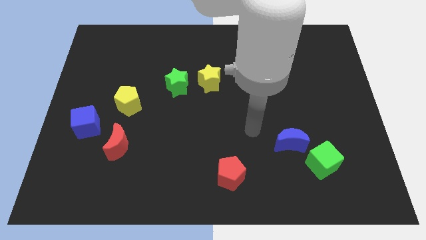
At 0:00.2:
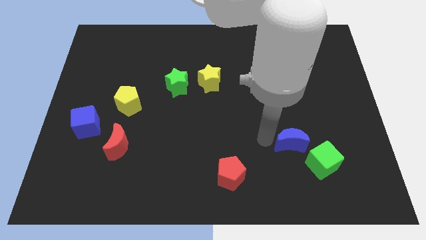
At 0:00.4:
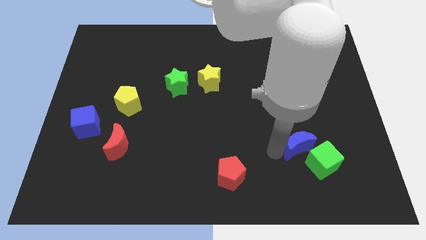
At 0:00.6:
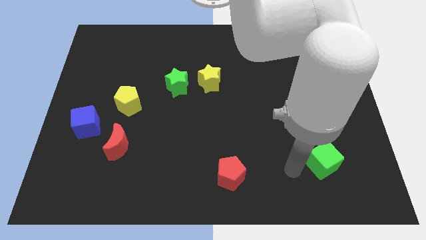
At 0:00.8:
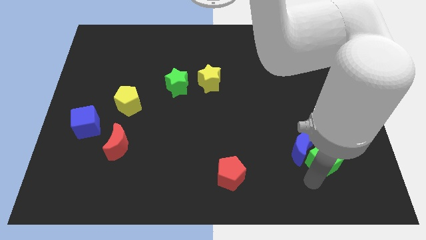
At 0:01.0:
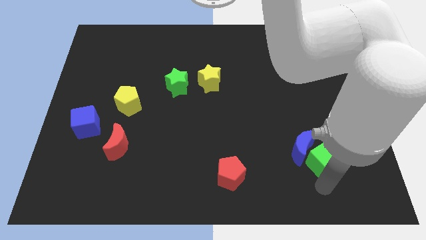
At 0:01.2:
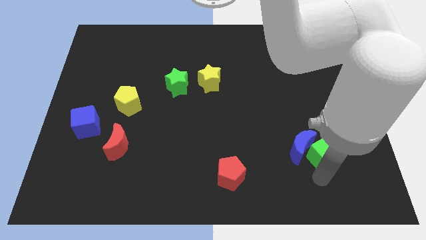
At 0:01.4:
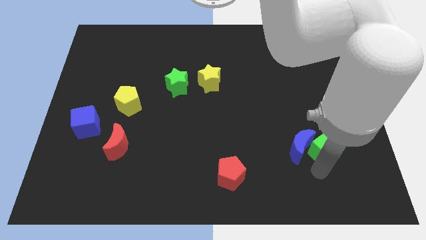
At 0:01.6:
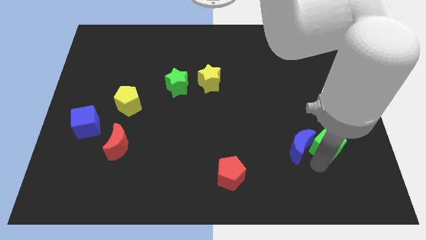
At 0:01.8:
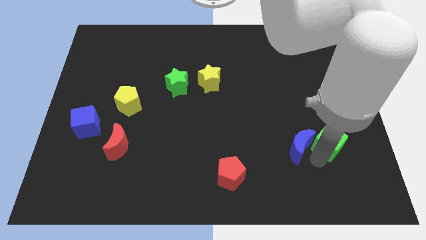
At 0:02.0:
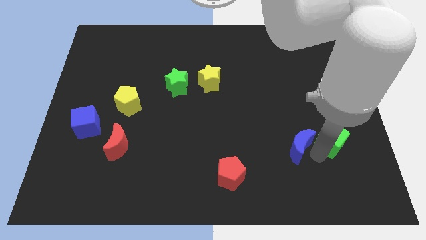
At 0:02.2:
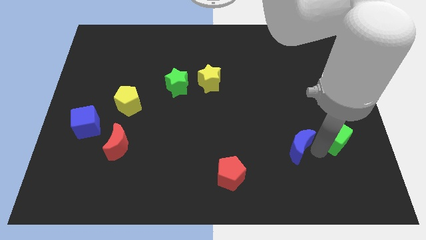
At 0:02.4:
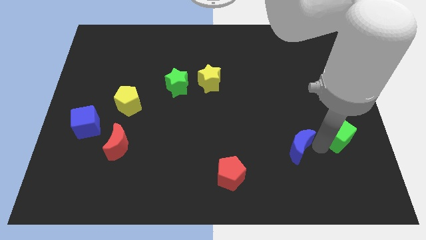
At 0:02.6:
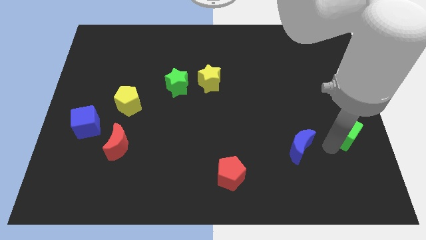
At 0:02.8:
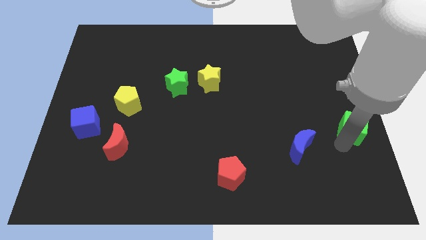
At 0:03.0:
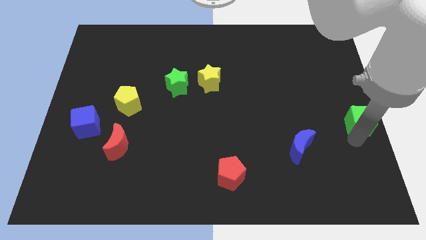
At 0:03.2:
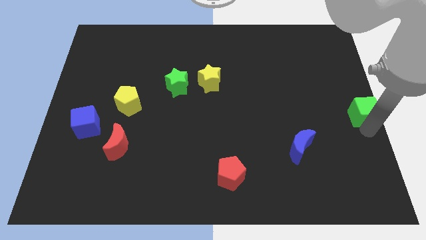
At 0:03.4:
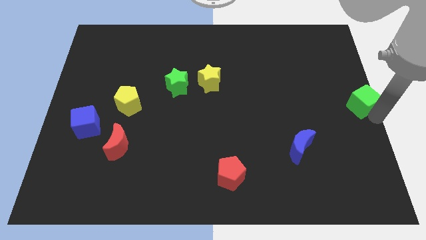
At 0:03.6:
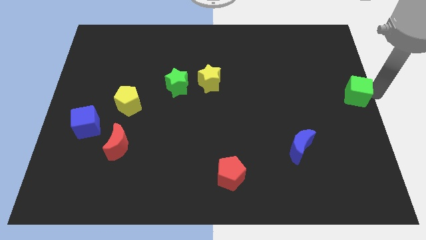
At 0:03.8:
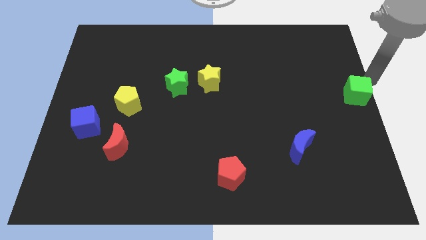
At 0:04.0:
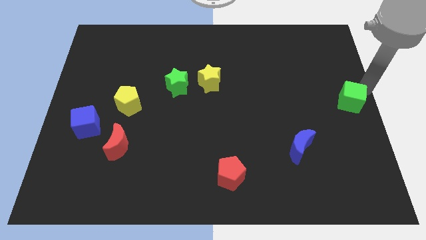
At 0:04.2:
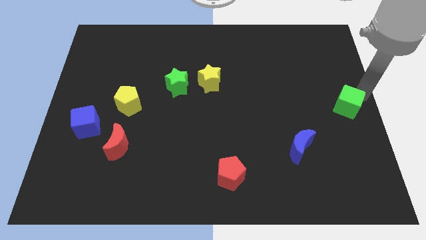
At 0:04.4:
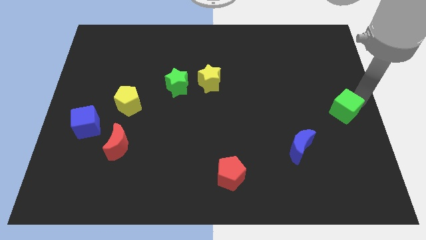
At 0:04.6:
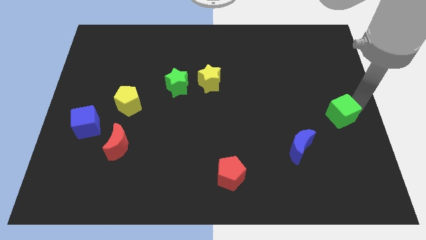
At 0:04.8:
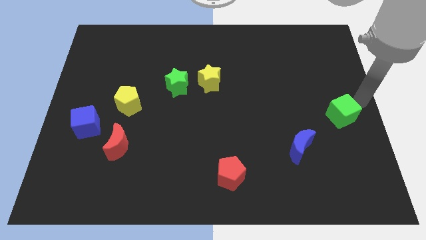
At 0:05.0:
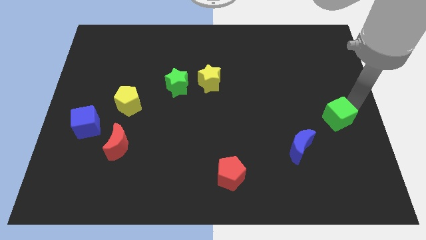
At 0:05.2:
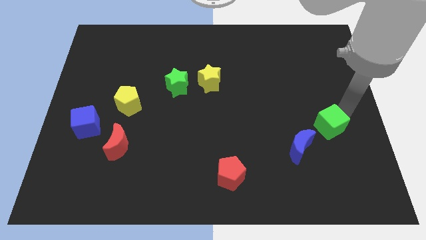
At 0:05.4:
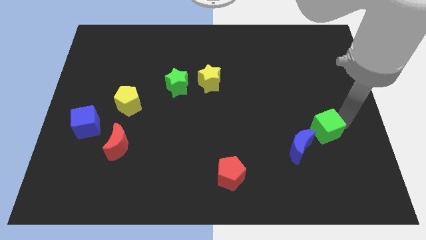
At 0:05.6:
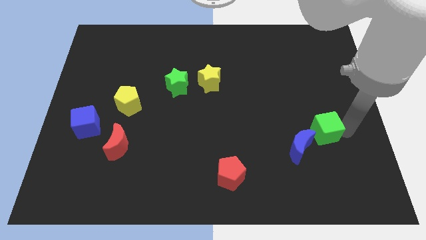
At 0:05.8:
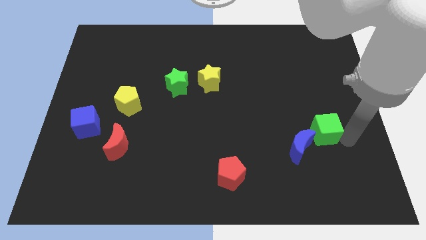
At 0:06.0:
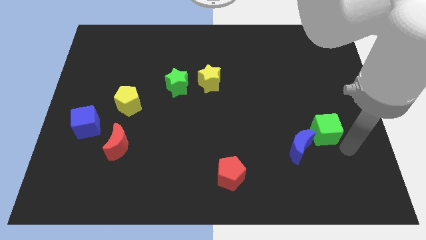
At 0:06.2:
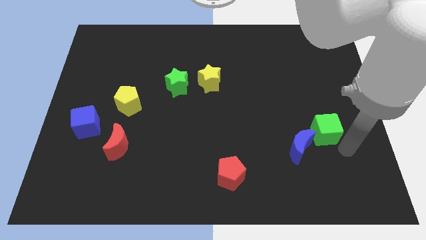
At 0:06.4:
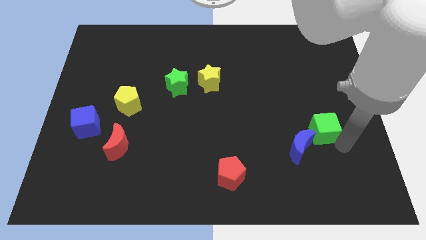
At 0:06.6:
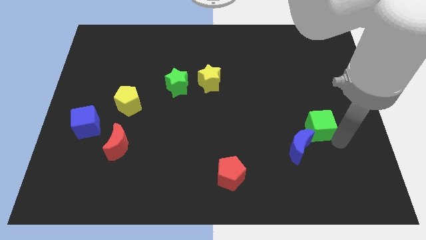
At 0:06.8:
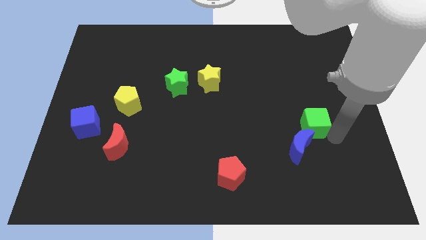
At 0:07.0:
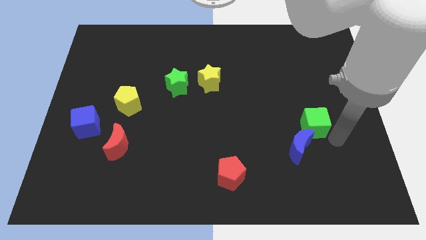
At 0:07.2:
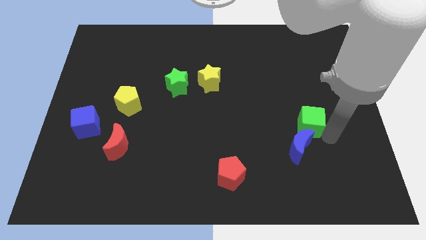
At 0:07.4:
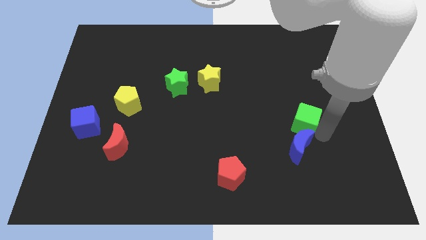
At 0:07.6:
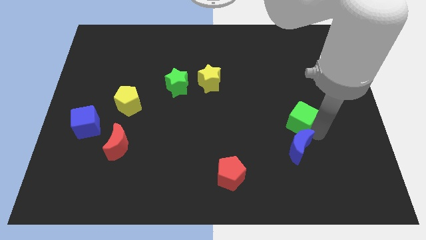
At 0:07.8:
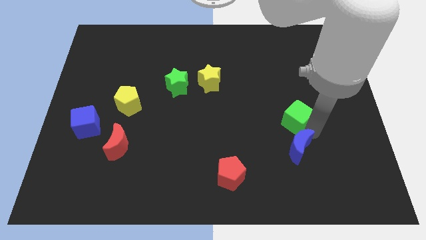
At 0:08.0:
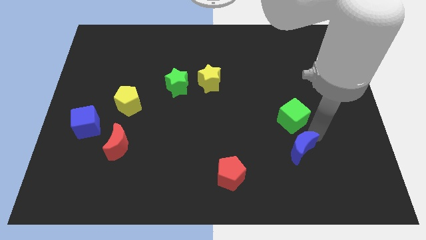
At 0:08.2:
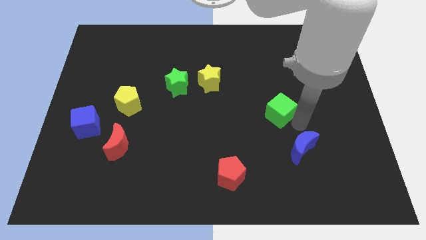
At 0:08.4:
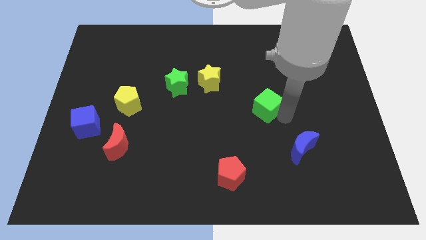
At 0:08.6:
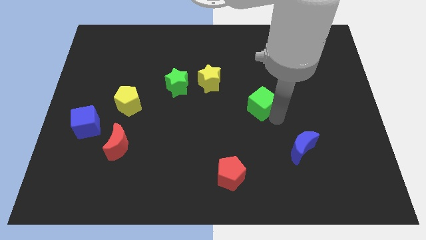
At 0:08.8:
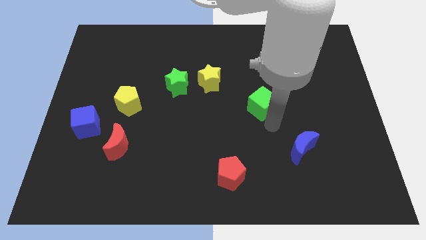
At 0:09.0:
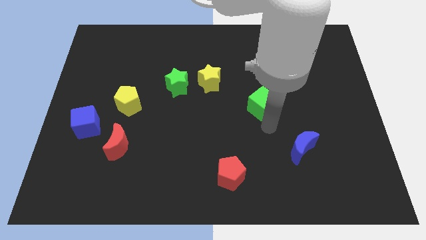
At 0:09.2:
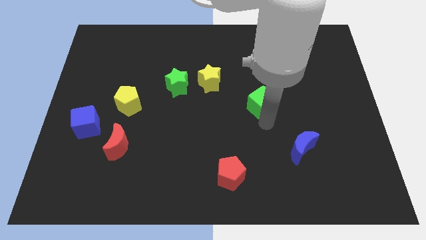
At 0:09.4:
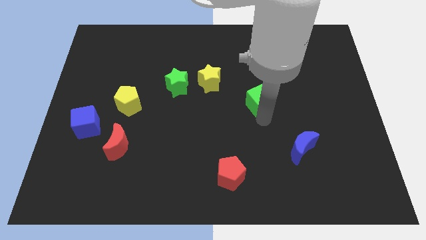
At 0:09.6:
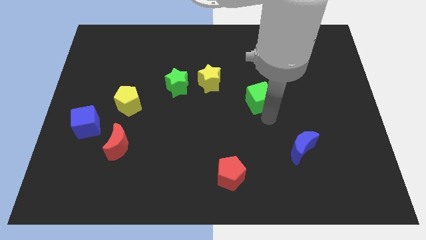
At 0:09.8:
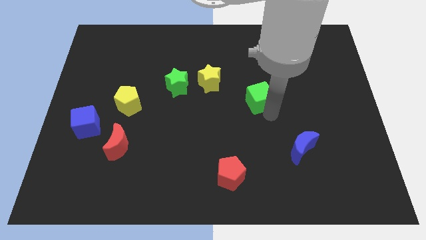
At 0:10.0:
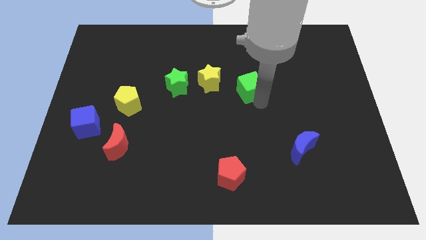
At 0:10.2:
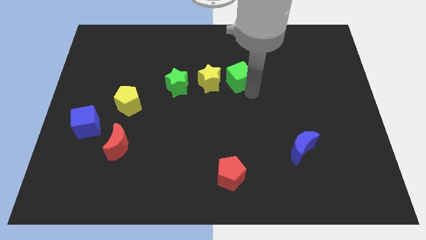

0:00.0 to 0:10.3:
slide the green cube diagonally up and to the right of the yellow star

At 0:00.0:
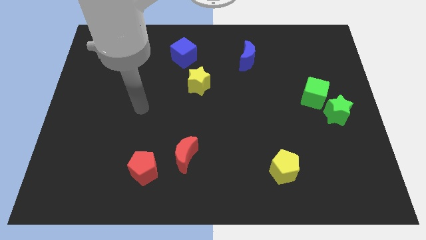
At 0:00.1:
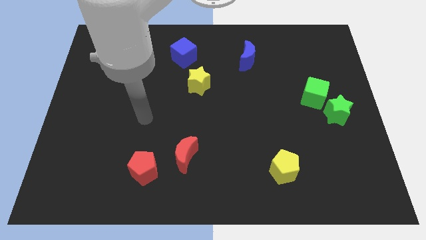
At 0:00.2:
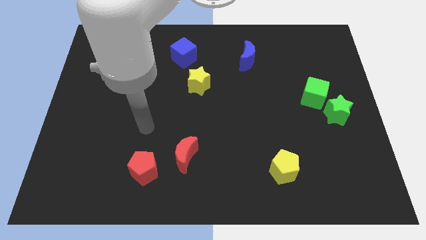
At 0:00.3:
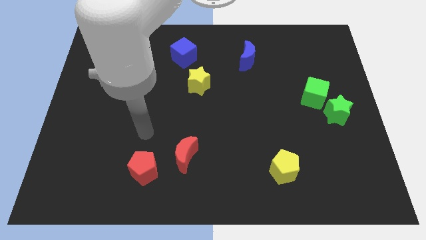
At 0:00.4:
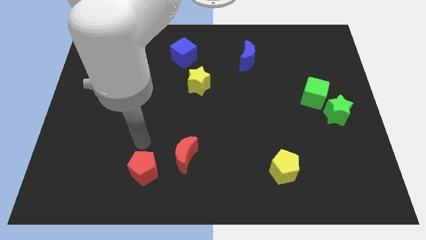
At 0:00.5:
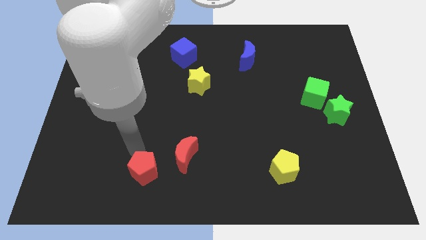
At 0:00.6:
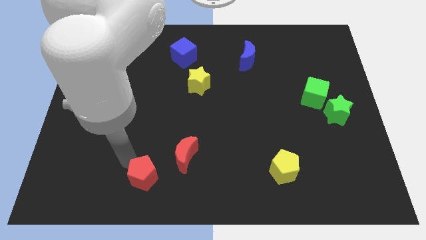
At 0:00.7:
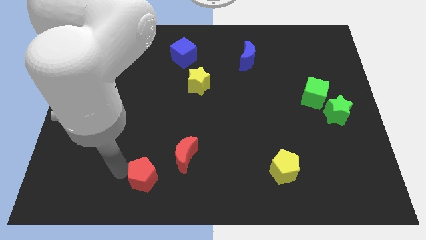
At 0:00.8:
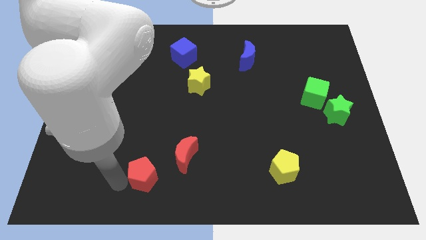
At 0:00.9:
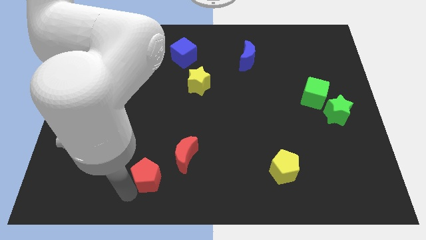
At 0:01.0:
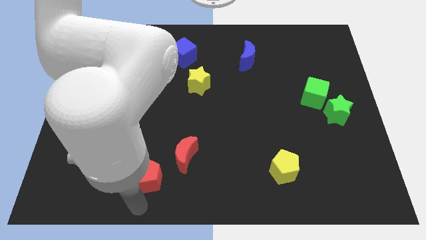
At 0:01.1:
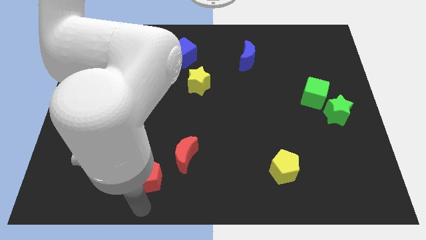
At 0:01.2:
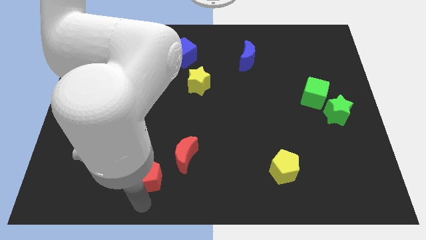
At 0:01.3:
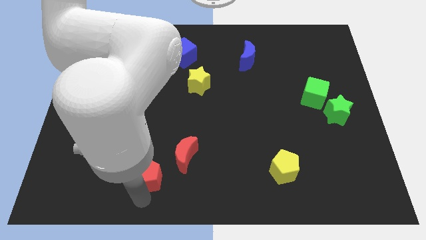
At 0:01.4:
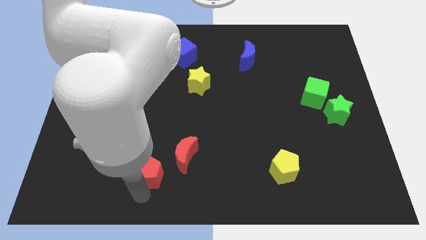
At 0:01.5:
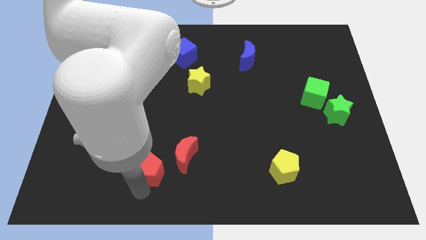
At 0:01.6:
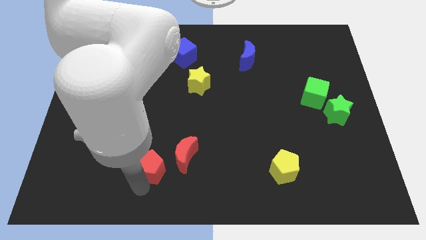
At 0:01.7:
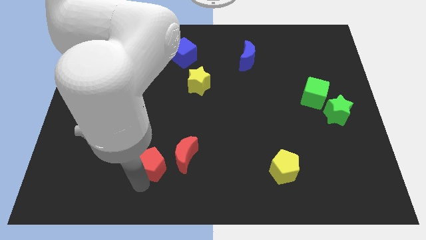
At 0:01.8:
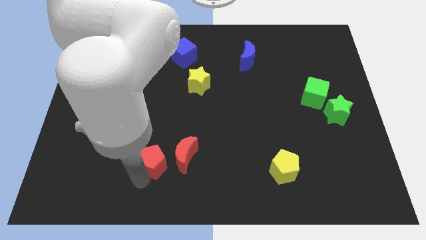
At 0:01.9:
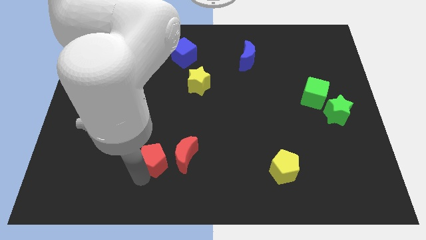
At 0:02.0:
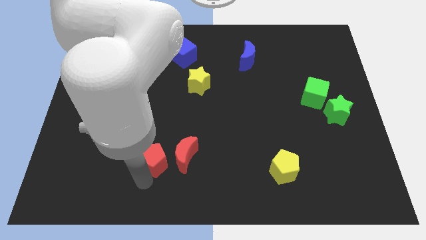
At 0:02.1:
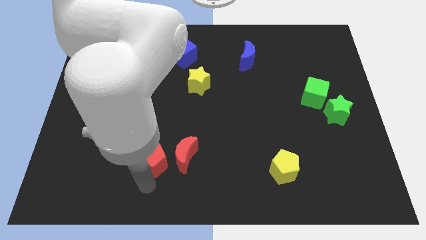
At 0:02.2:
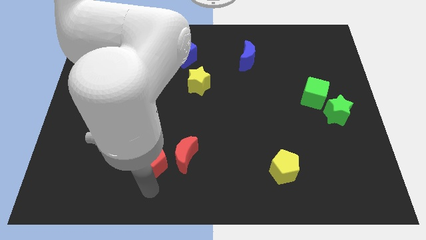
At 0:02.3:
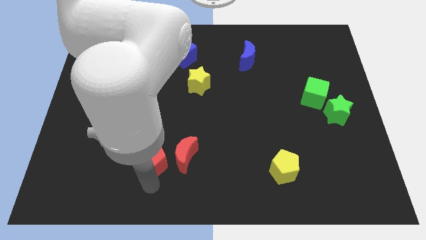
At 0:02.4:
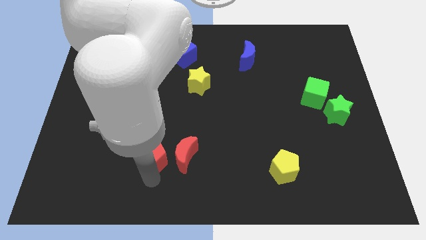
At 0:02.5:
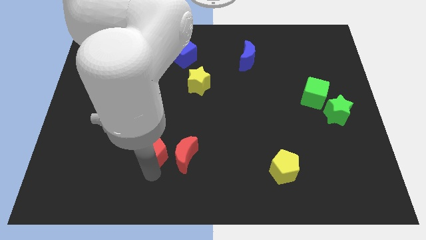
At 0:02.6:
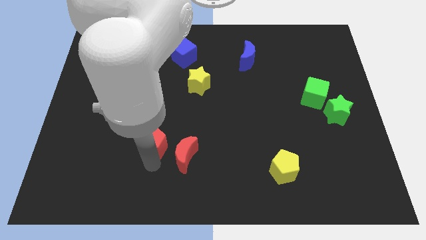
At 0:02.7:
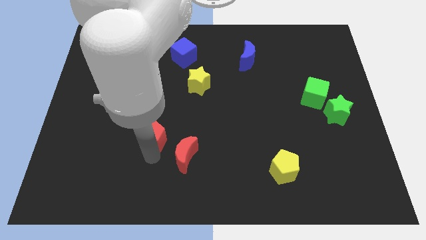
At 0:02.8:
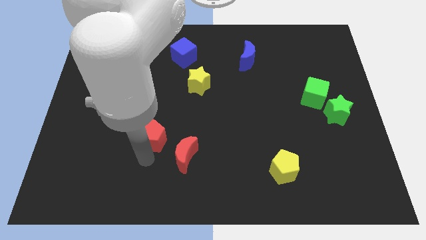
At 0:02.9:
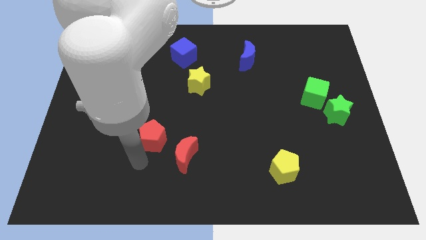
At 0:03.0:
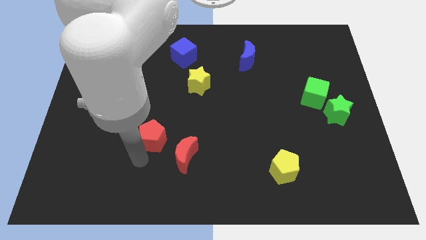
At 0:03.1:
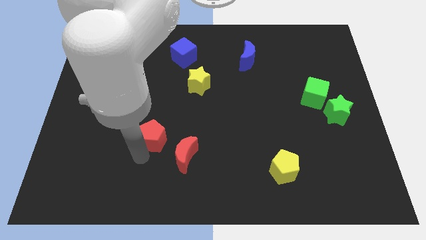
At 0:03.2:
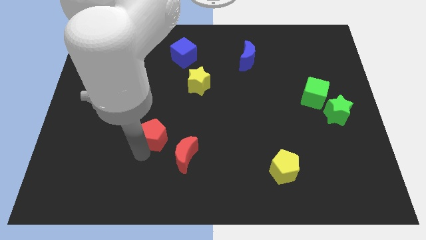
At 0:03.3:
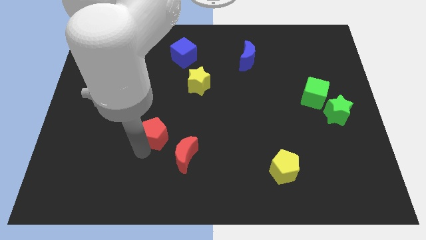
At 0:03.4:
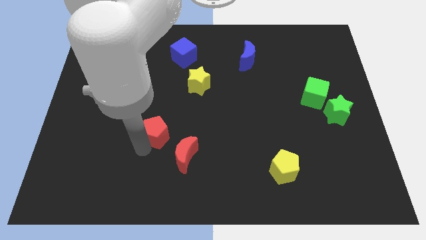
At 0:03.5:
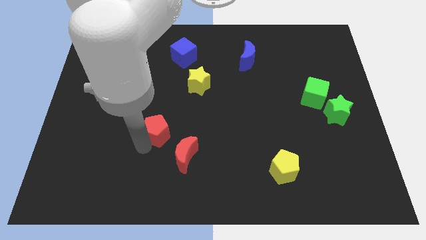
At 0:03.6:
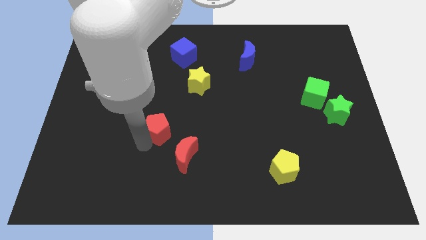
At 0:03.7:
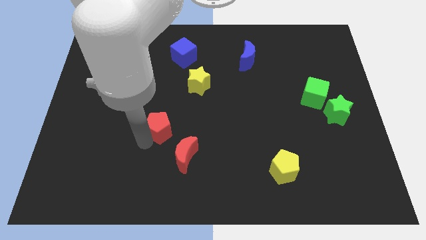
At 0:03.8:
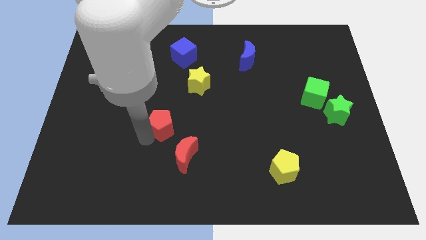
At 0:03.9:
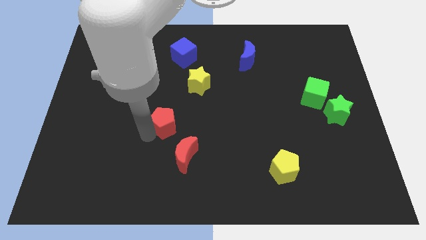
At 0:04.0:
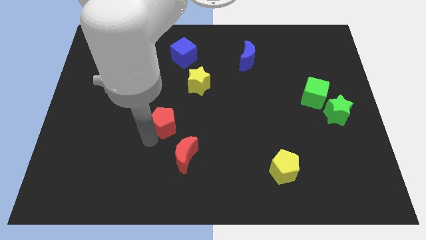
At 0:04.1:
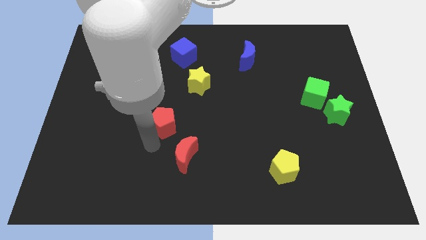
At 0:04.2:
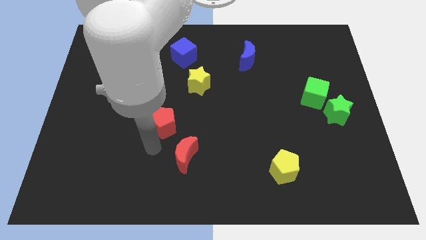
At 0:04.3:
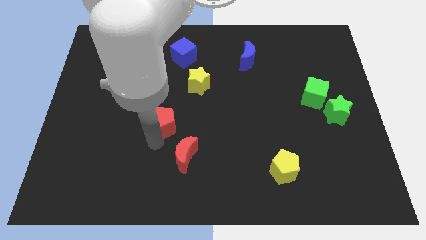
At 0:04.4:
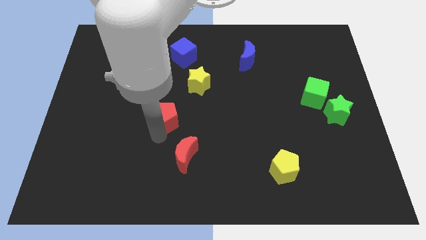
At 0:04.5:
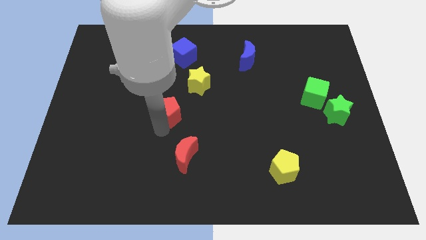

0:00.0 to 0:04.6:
slide the red pentagon to the bottom left of the yellow star
